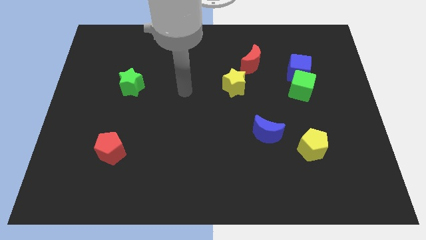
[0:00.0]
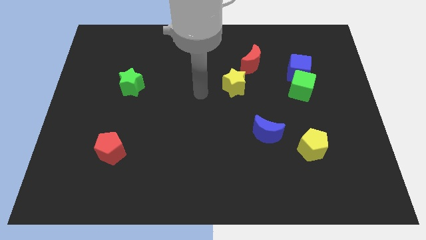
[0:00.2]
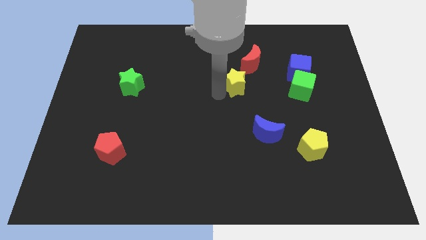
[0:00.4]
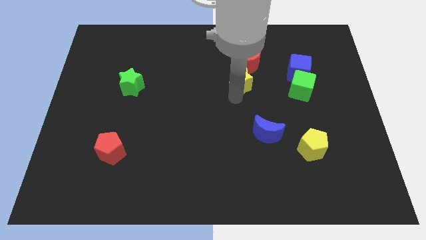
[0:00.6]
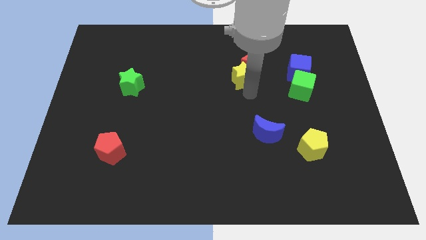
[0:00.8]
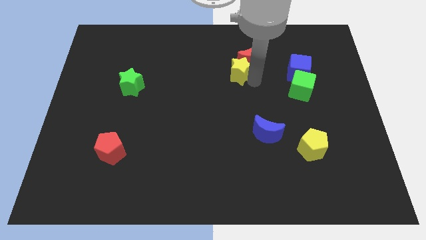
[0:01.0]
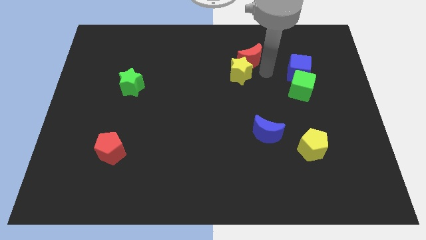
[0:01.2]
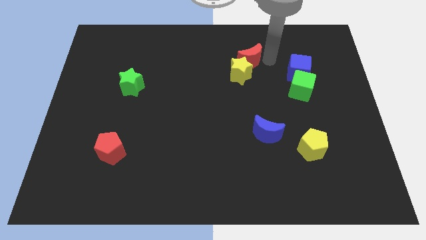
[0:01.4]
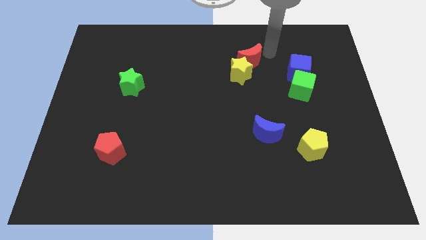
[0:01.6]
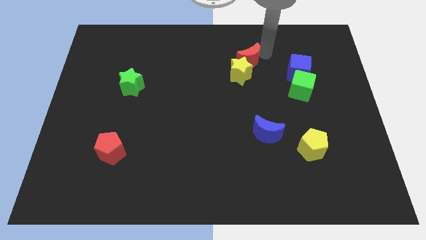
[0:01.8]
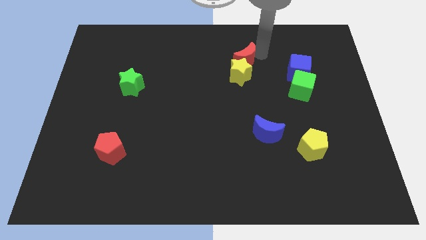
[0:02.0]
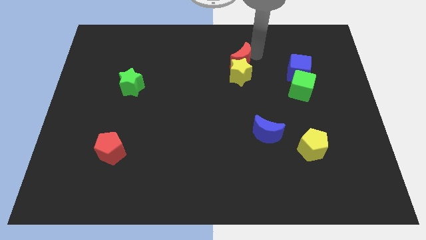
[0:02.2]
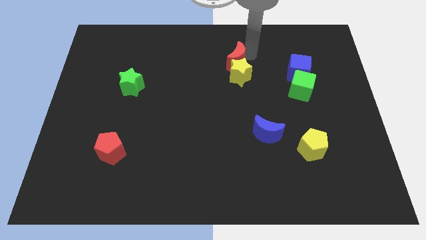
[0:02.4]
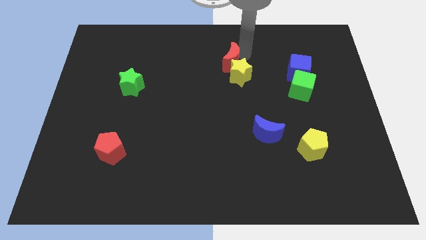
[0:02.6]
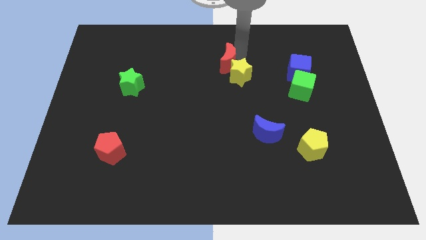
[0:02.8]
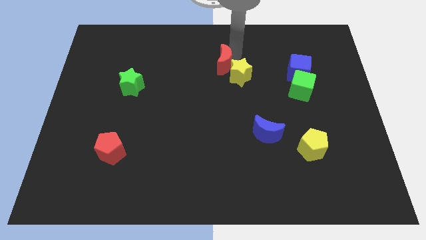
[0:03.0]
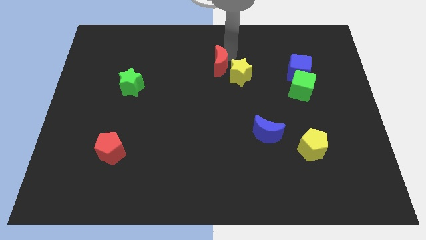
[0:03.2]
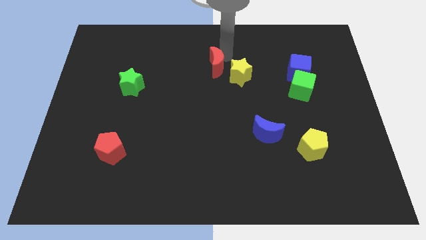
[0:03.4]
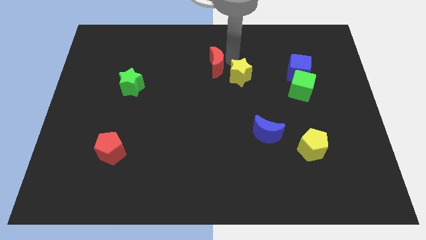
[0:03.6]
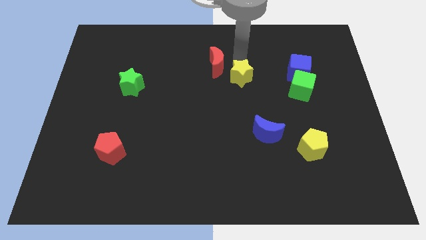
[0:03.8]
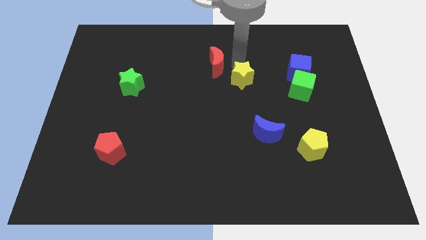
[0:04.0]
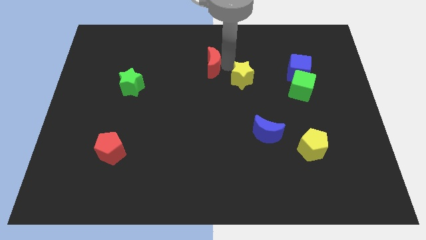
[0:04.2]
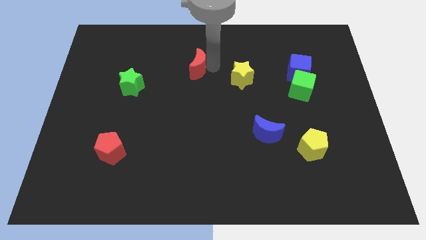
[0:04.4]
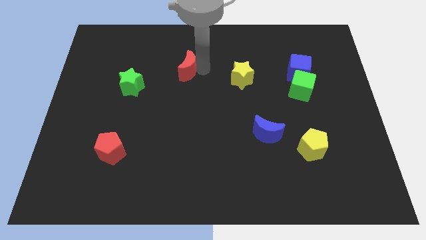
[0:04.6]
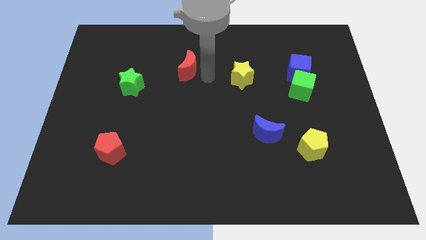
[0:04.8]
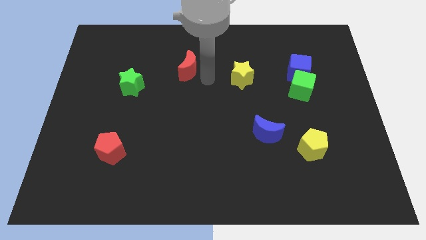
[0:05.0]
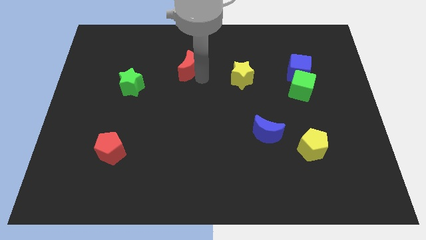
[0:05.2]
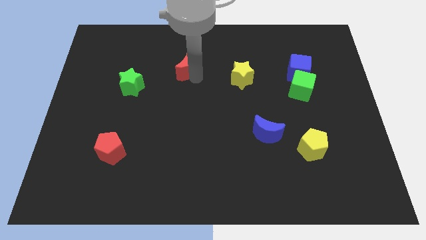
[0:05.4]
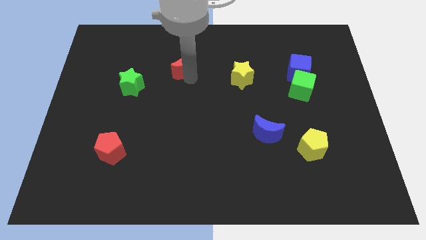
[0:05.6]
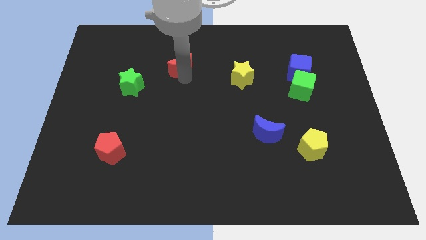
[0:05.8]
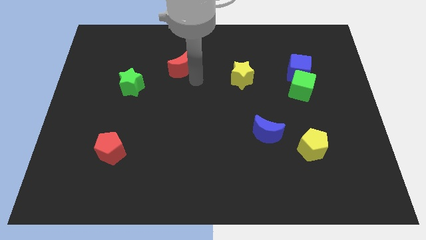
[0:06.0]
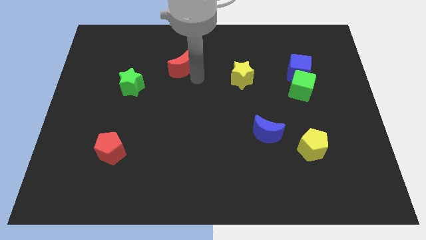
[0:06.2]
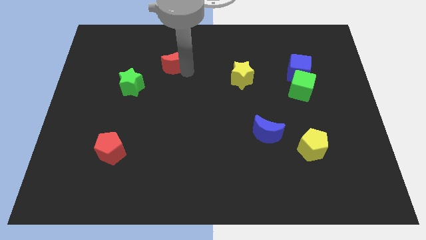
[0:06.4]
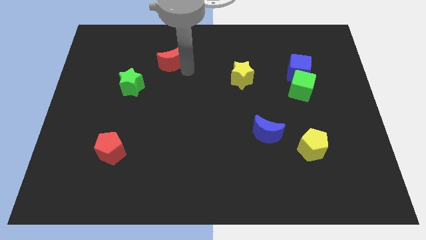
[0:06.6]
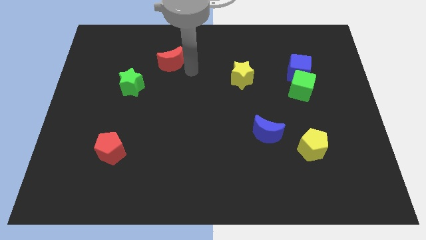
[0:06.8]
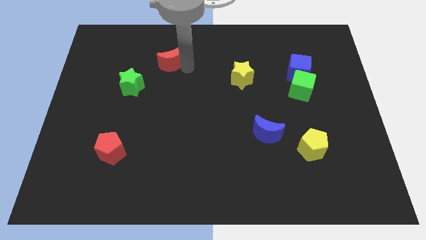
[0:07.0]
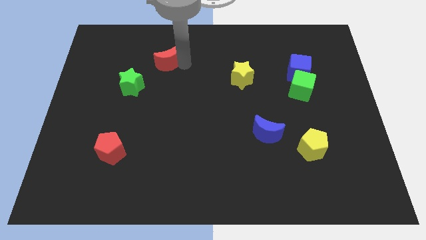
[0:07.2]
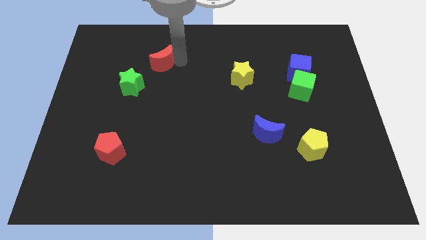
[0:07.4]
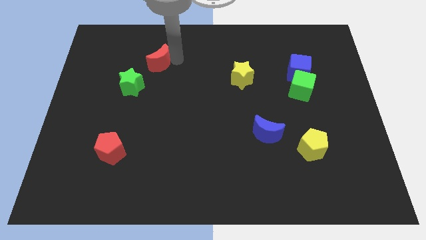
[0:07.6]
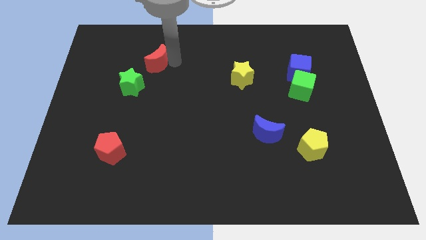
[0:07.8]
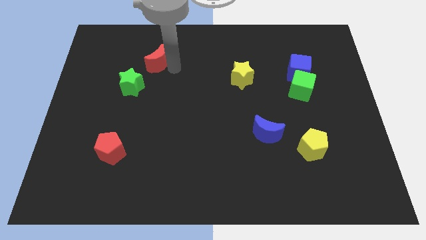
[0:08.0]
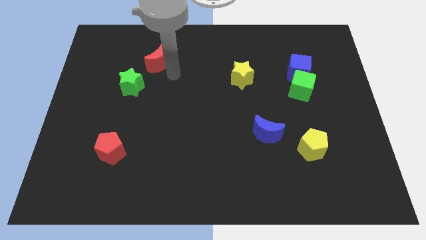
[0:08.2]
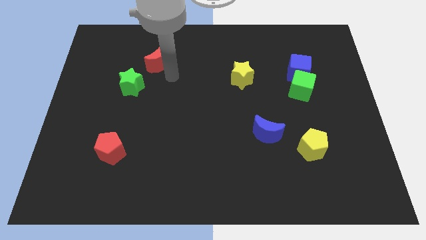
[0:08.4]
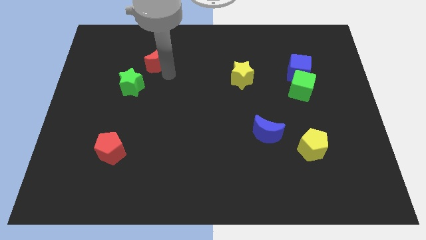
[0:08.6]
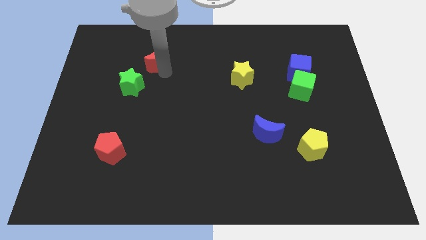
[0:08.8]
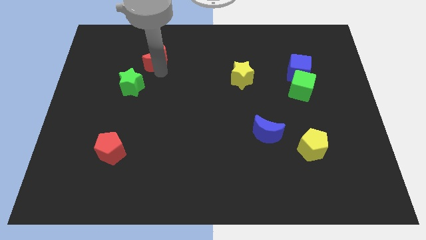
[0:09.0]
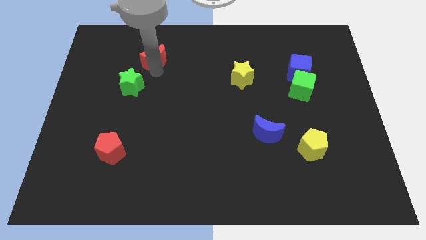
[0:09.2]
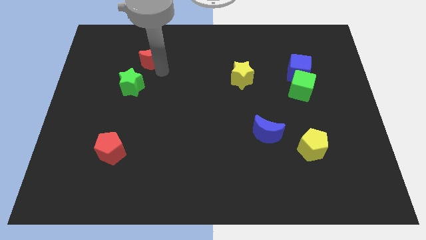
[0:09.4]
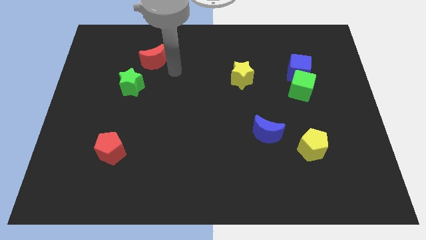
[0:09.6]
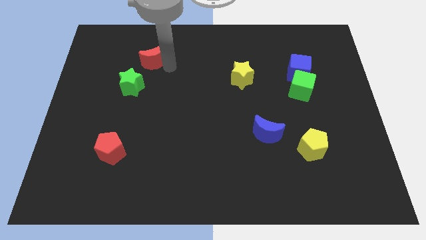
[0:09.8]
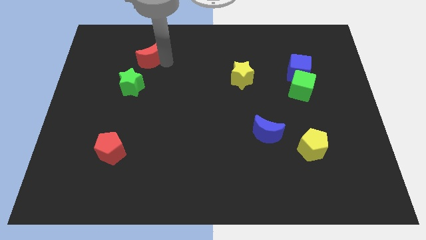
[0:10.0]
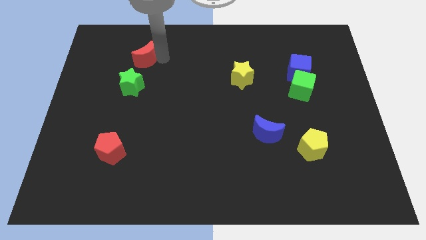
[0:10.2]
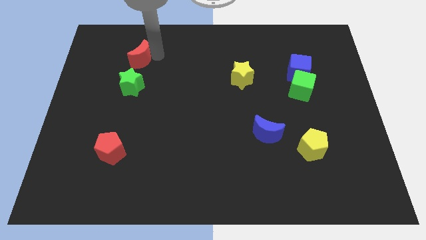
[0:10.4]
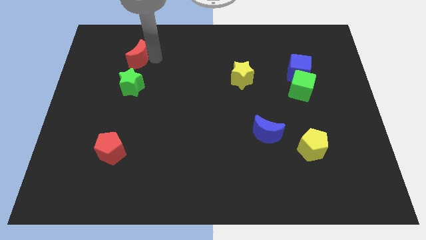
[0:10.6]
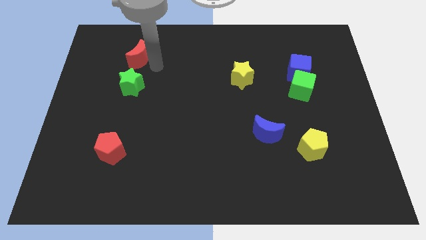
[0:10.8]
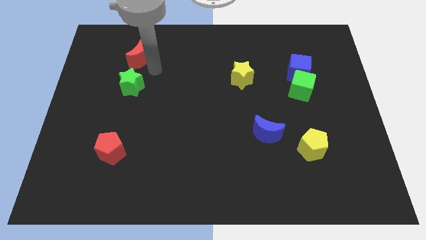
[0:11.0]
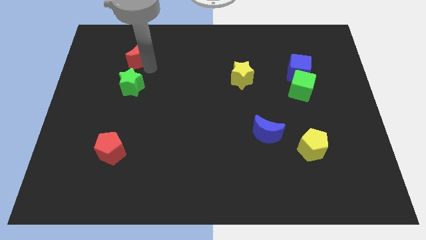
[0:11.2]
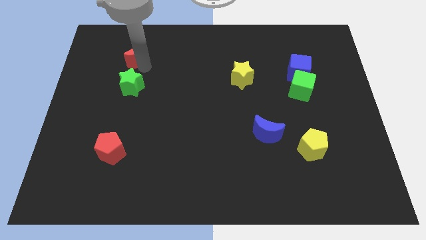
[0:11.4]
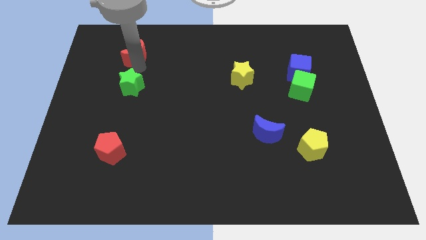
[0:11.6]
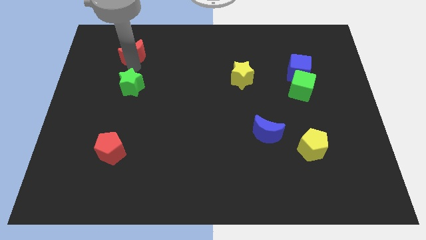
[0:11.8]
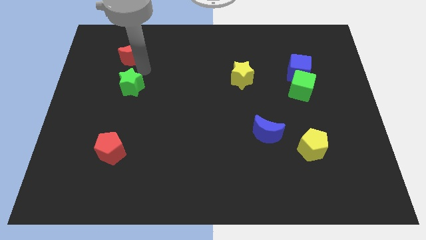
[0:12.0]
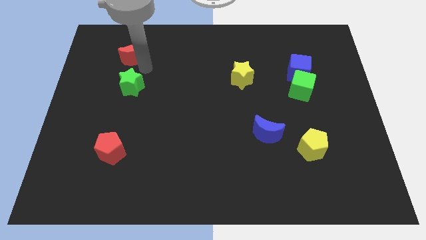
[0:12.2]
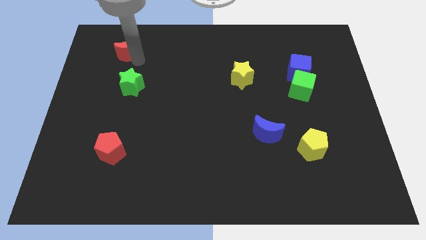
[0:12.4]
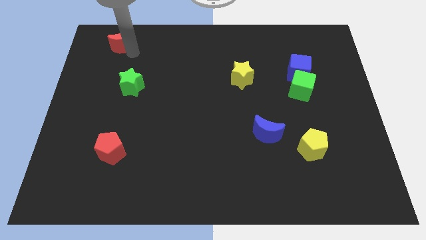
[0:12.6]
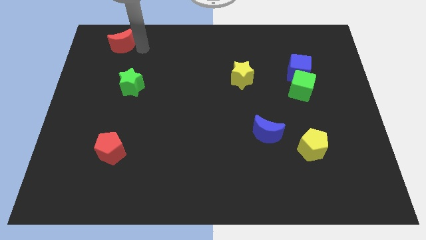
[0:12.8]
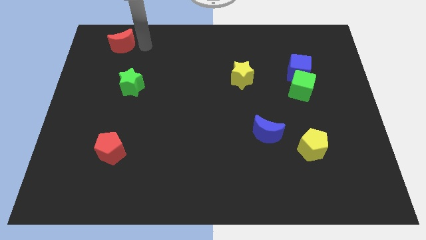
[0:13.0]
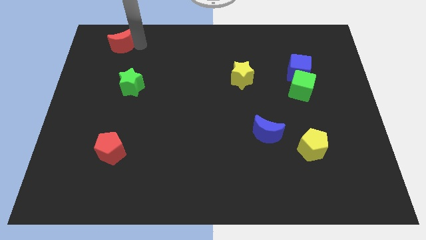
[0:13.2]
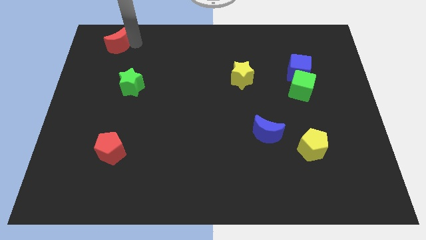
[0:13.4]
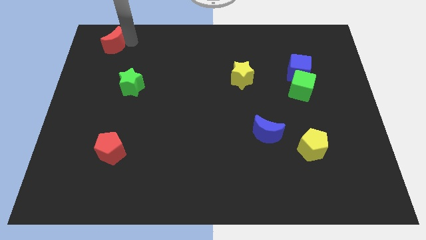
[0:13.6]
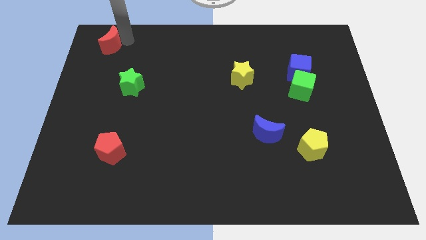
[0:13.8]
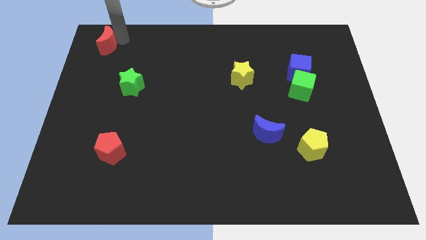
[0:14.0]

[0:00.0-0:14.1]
push the red moon to the top left of the board
